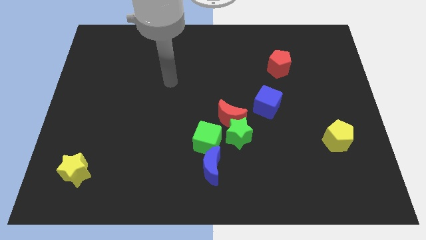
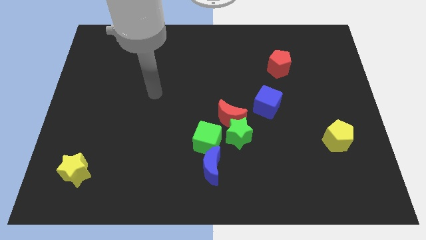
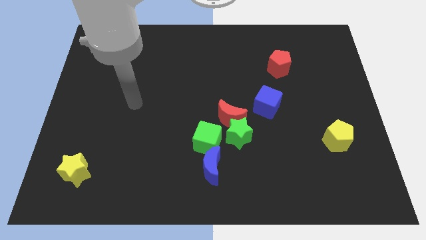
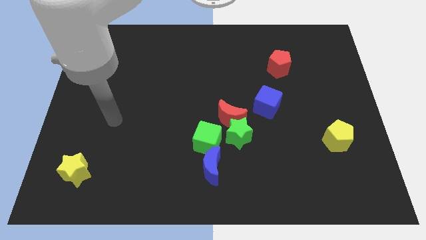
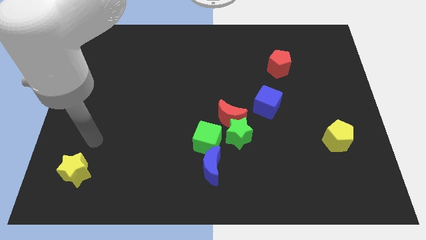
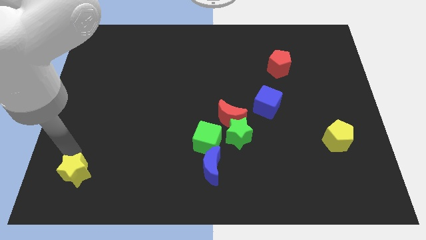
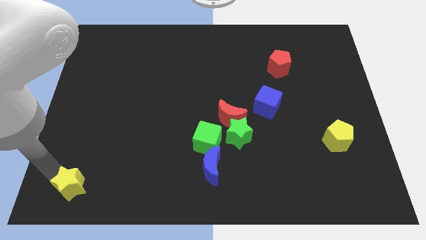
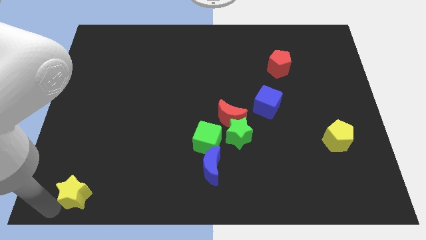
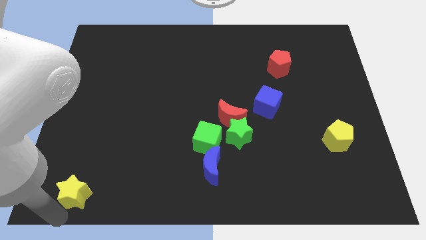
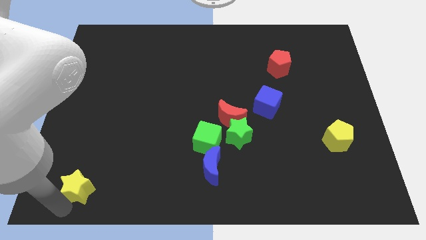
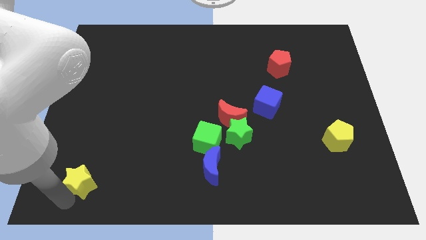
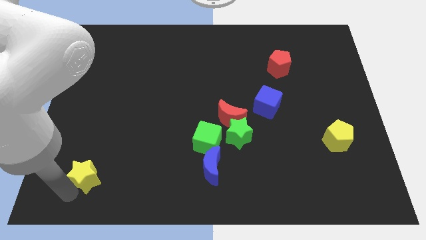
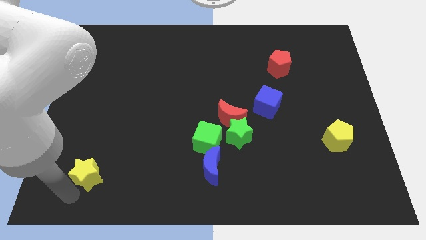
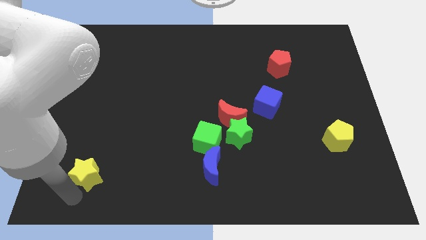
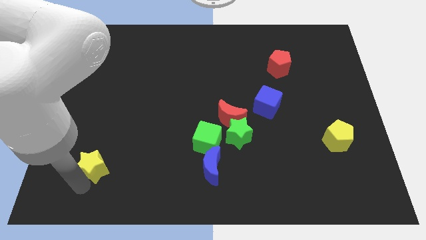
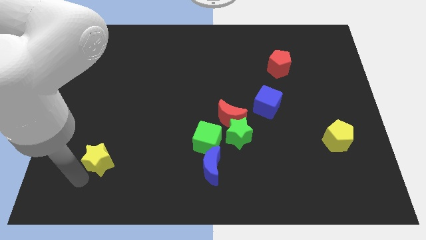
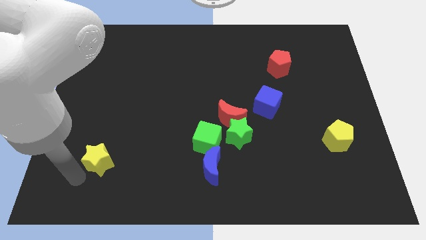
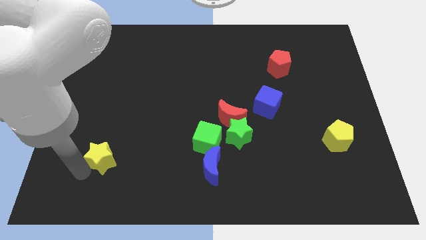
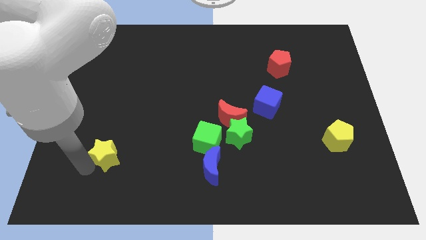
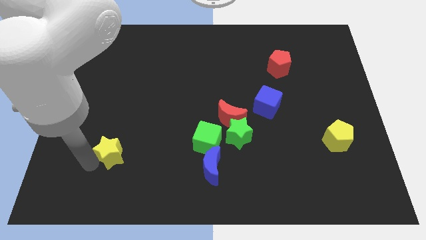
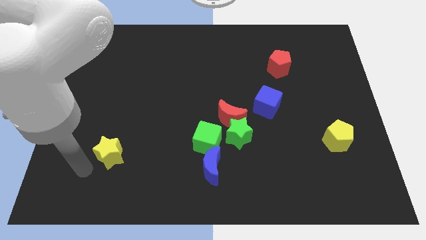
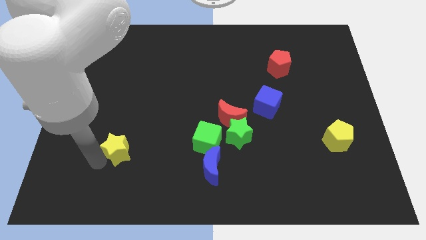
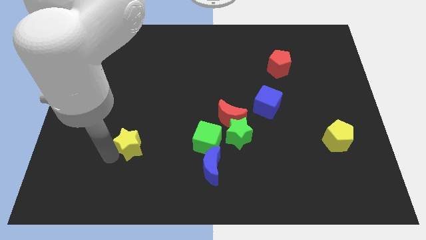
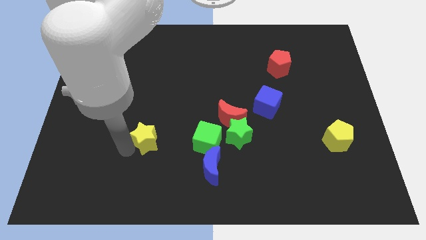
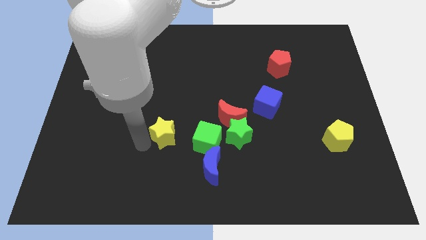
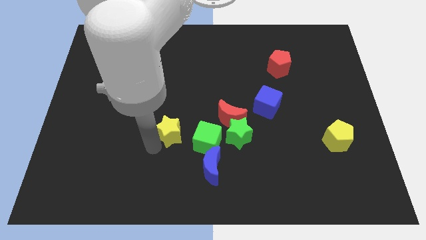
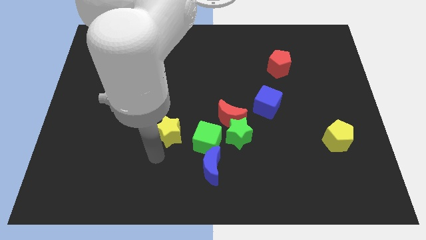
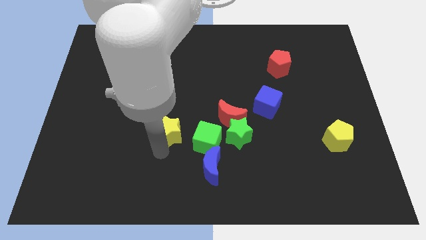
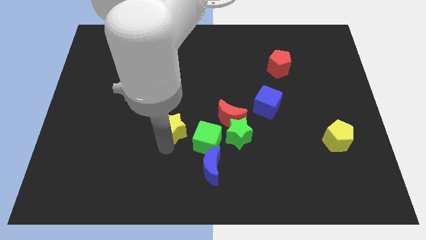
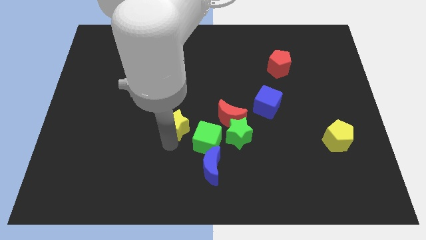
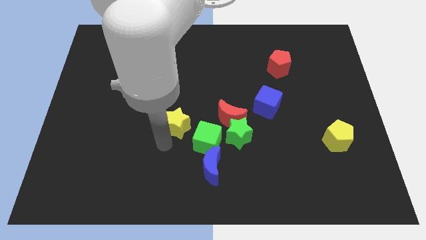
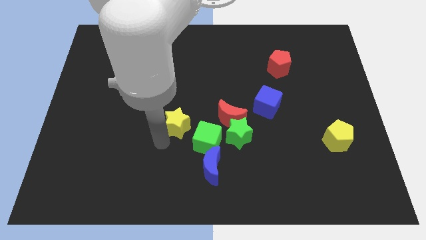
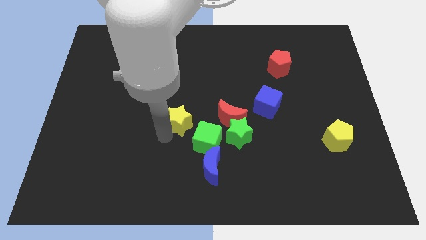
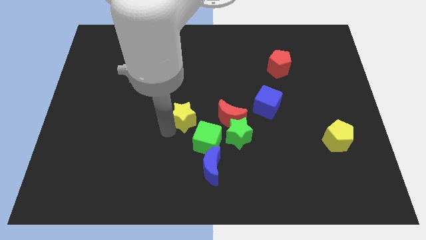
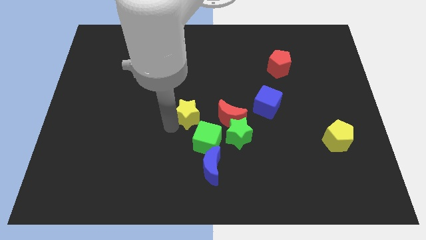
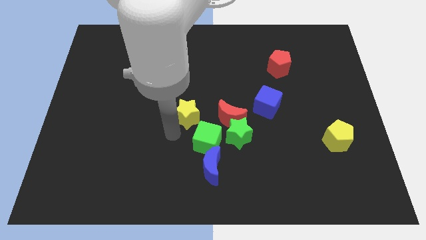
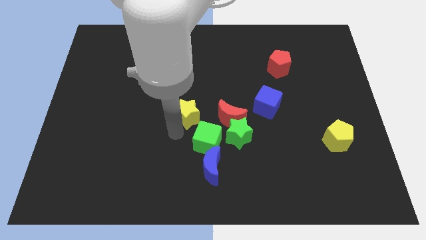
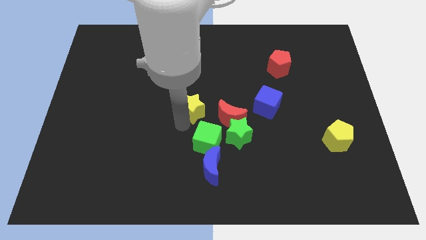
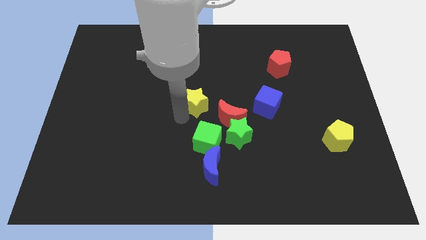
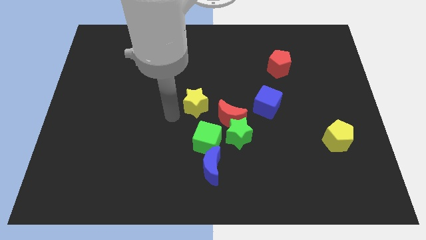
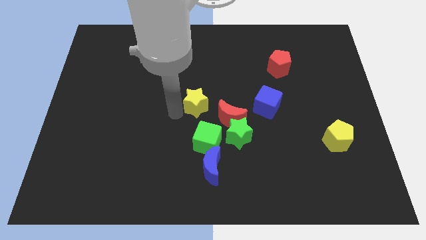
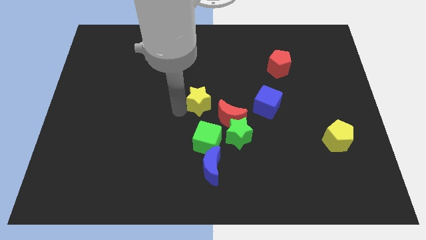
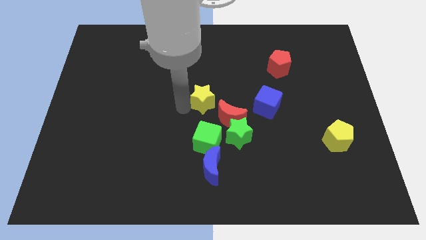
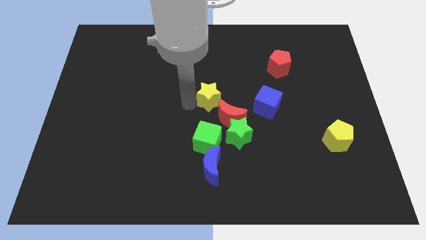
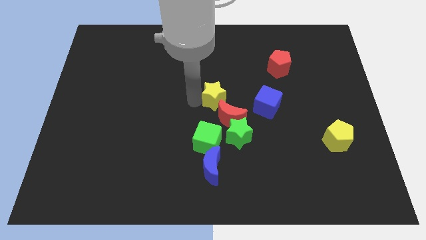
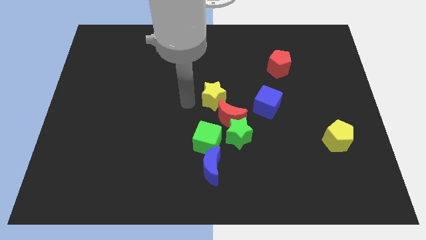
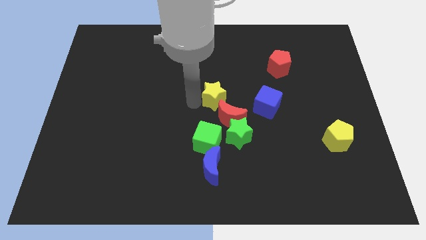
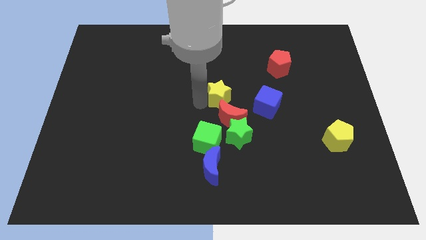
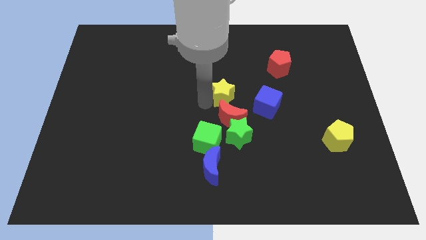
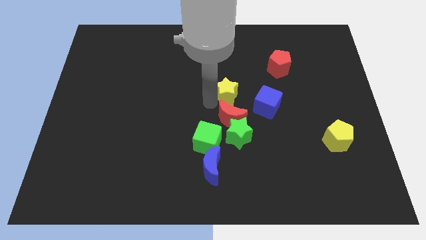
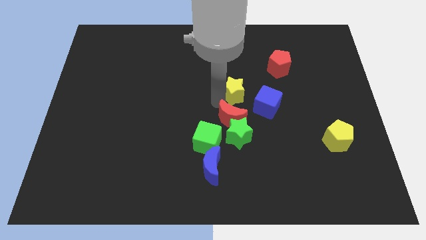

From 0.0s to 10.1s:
push the yellow star to the top right side of the red moon
